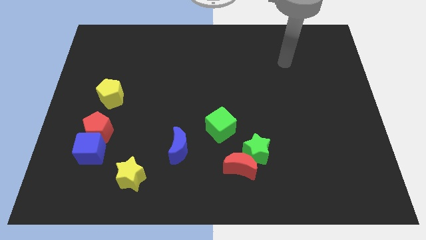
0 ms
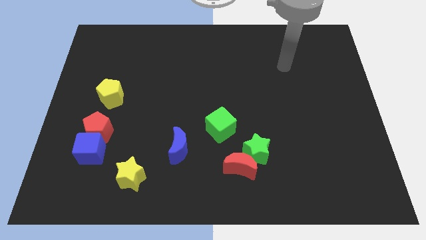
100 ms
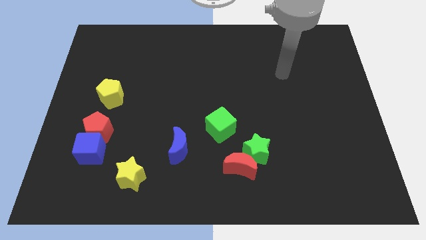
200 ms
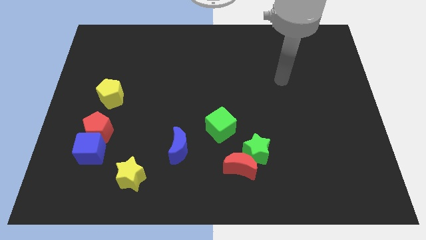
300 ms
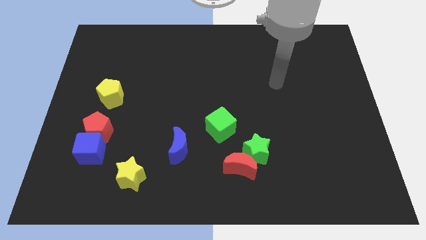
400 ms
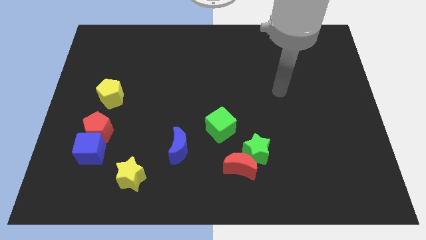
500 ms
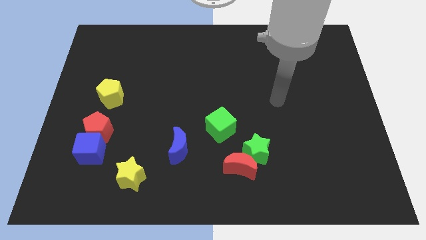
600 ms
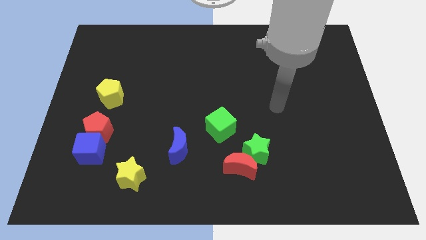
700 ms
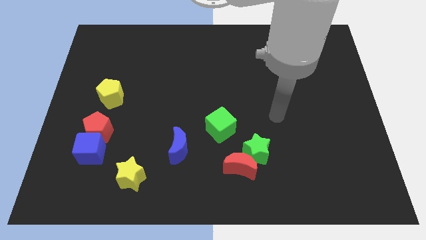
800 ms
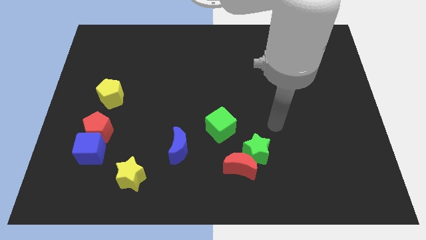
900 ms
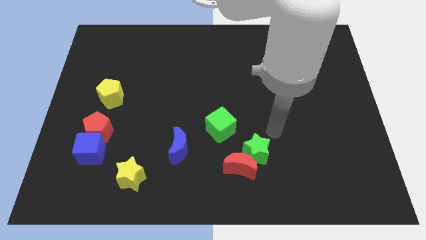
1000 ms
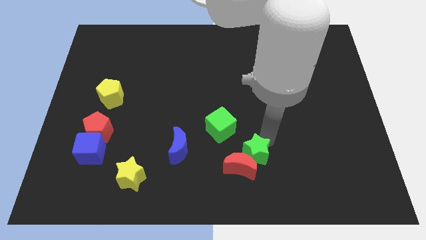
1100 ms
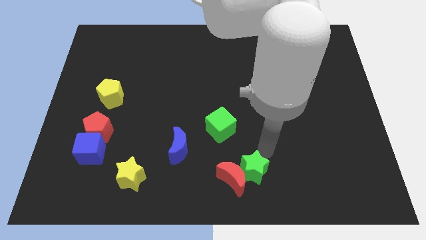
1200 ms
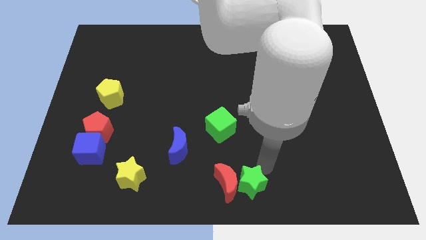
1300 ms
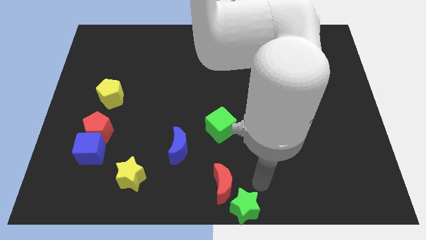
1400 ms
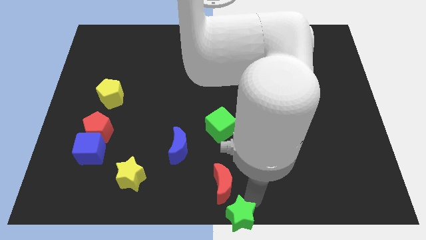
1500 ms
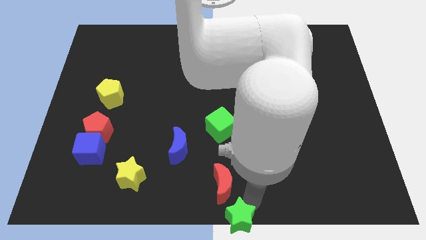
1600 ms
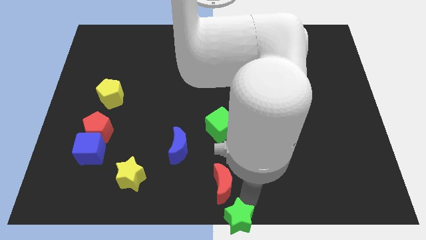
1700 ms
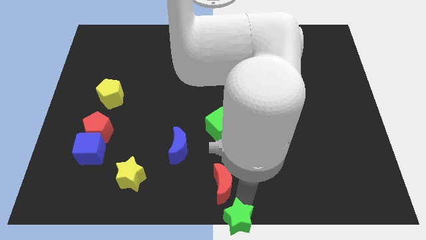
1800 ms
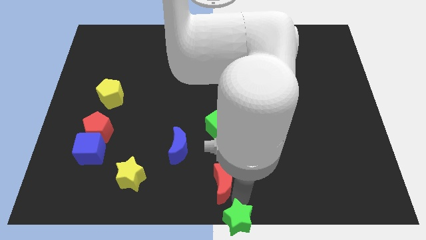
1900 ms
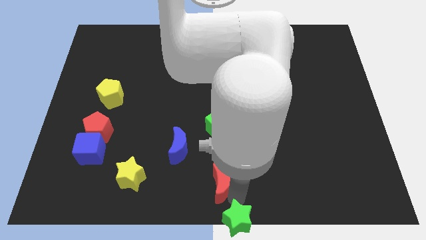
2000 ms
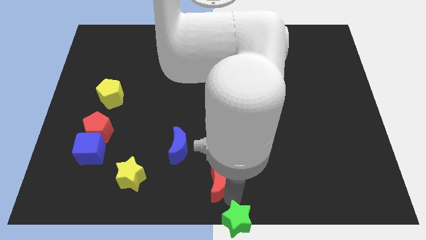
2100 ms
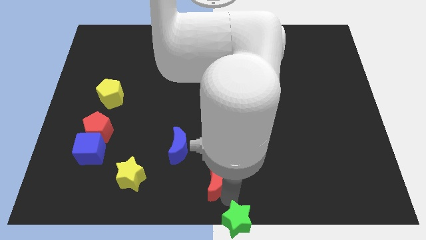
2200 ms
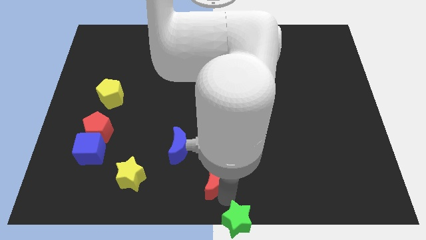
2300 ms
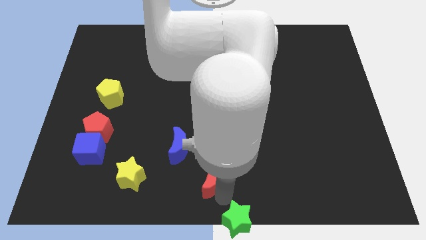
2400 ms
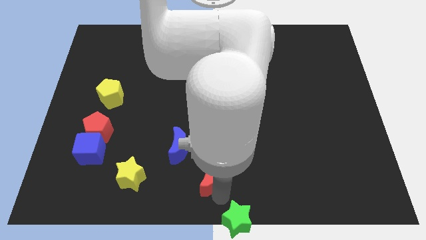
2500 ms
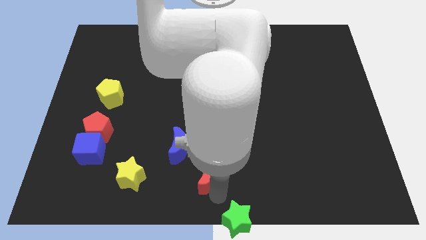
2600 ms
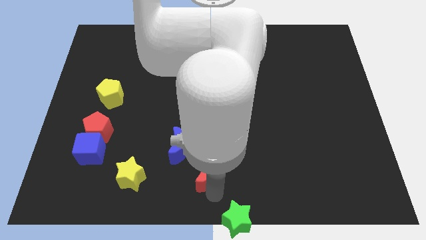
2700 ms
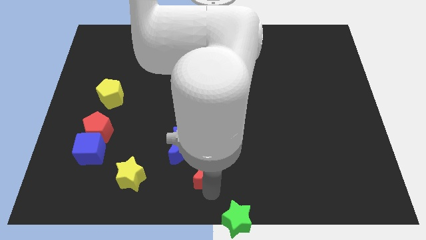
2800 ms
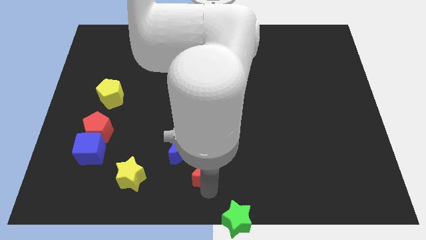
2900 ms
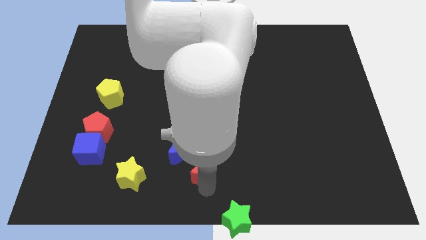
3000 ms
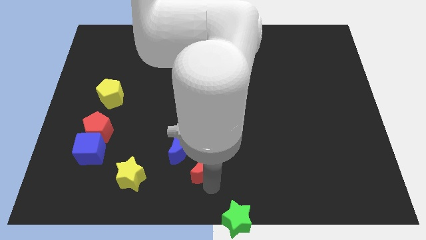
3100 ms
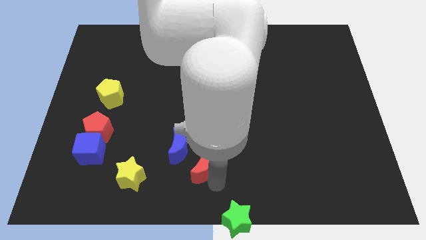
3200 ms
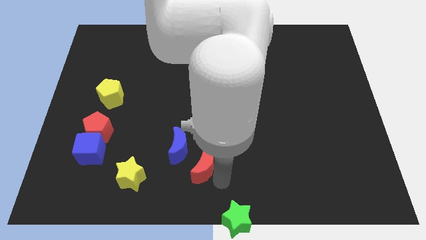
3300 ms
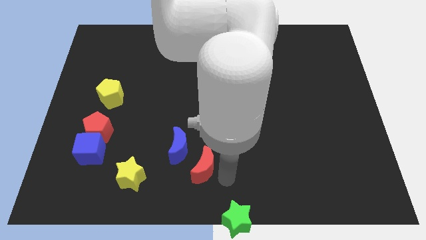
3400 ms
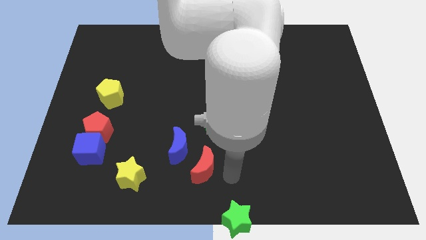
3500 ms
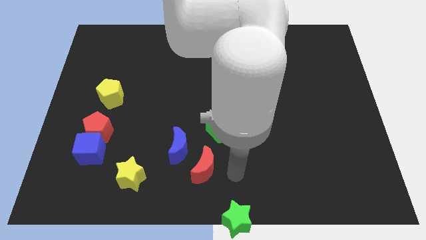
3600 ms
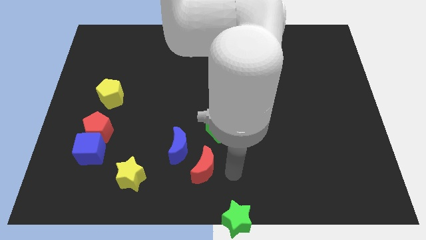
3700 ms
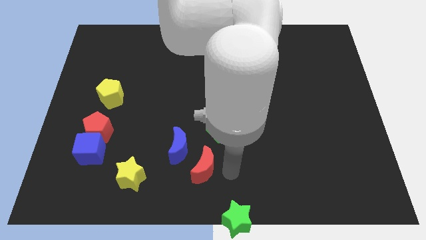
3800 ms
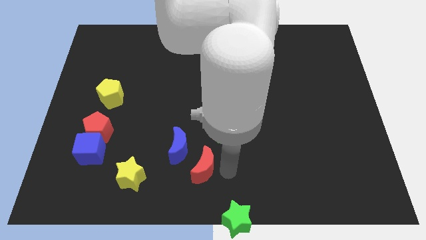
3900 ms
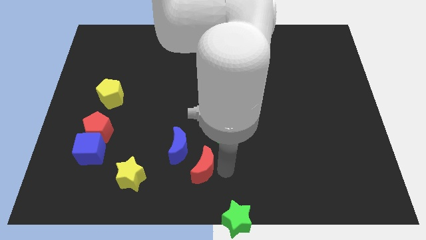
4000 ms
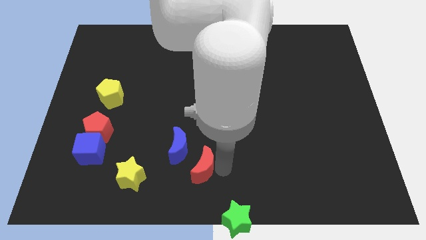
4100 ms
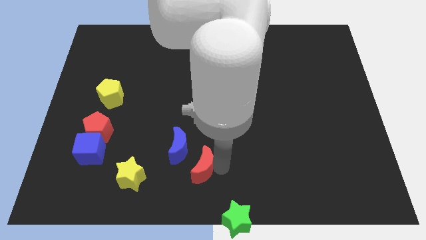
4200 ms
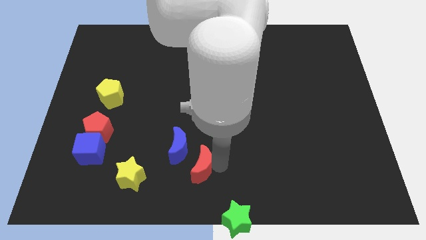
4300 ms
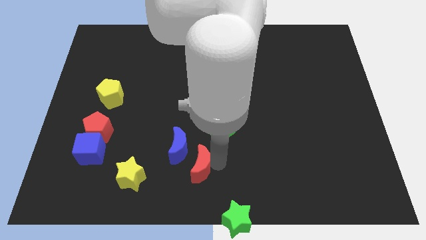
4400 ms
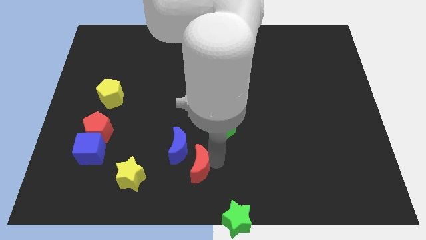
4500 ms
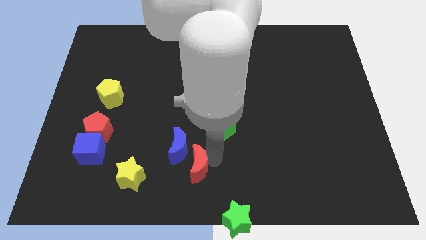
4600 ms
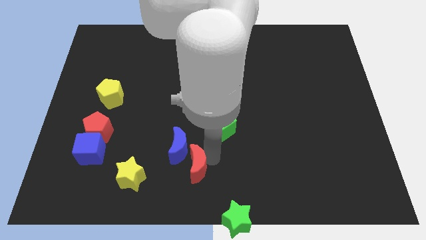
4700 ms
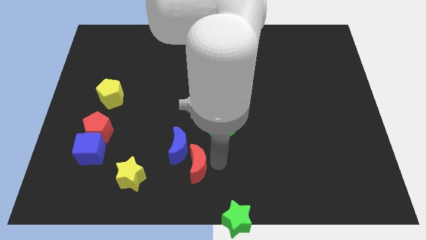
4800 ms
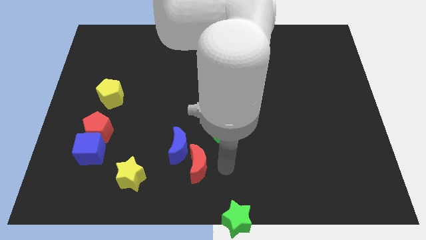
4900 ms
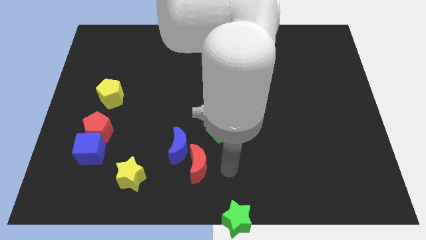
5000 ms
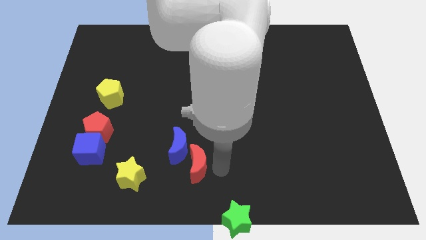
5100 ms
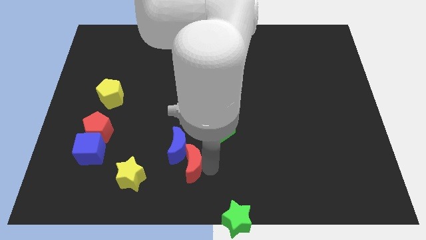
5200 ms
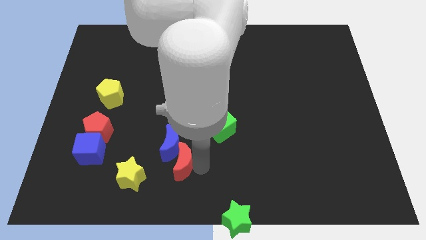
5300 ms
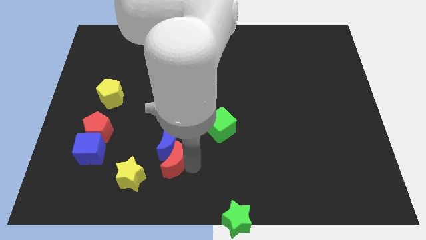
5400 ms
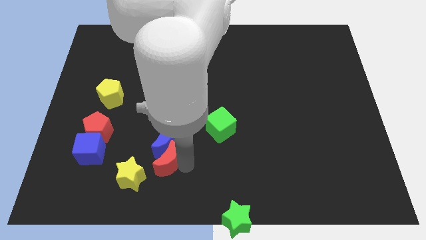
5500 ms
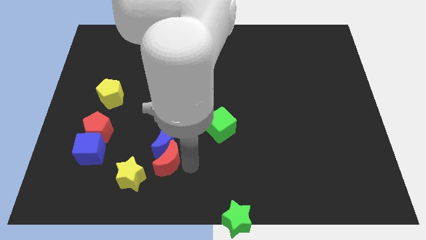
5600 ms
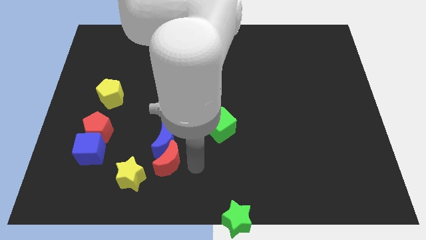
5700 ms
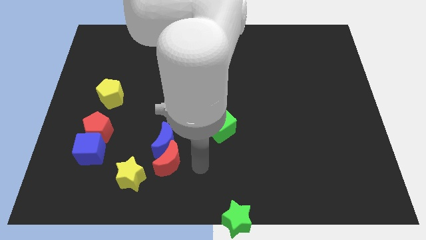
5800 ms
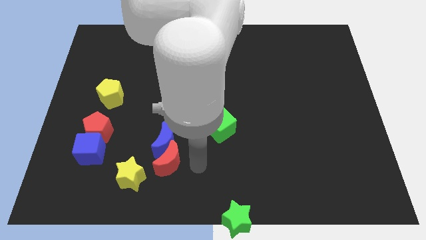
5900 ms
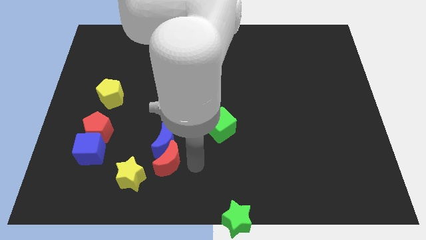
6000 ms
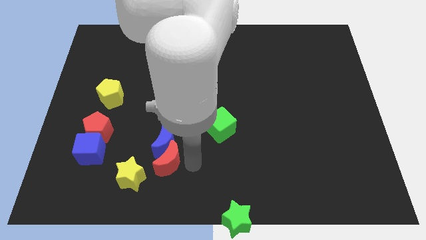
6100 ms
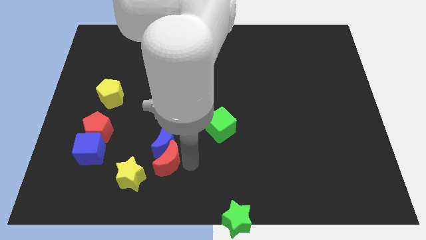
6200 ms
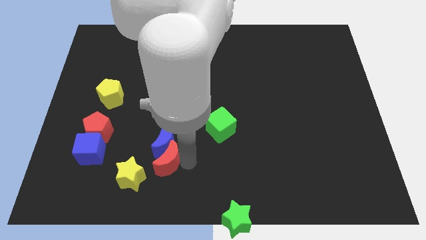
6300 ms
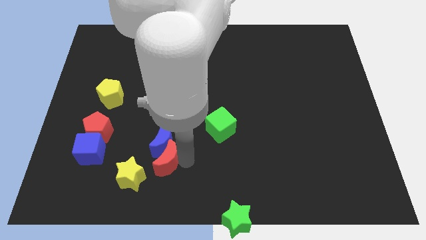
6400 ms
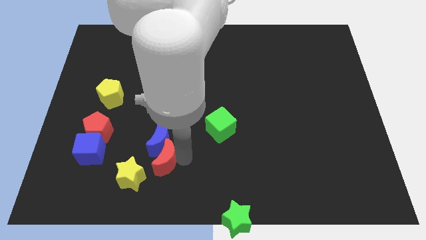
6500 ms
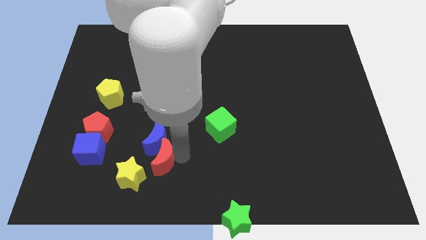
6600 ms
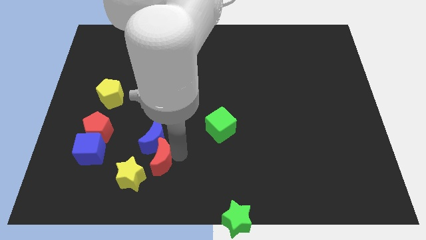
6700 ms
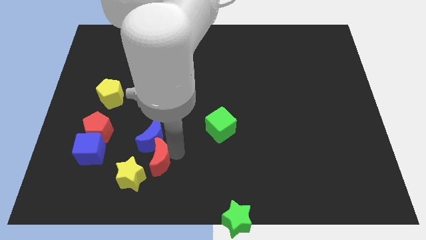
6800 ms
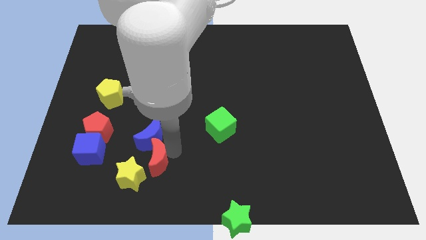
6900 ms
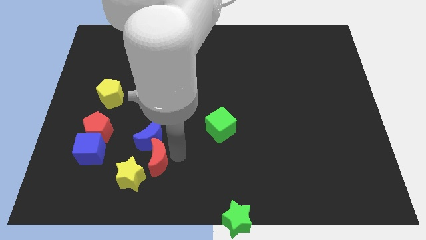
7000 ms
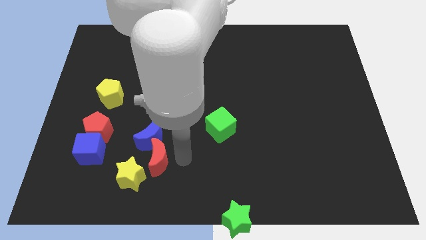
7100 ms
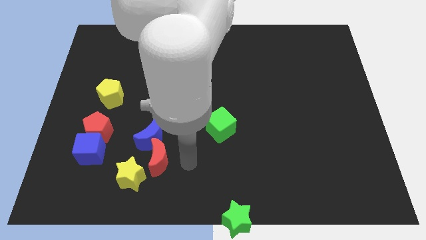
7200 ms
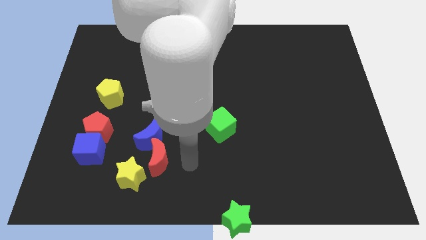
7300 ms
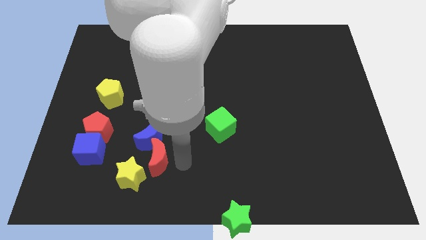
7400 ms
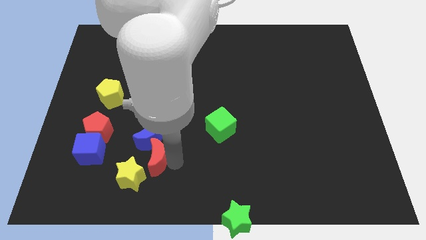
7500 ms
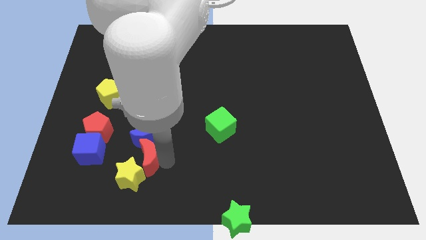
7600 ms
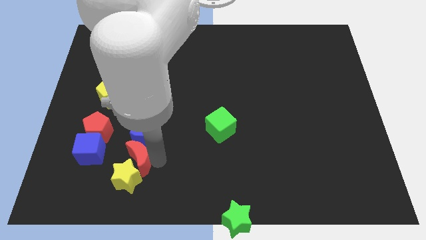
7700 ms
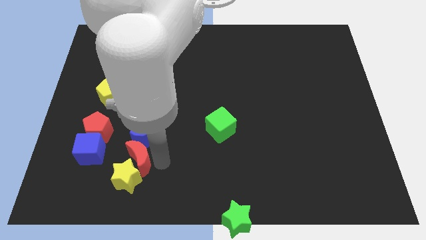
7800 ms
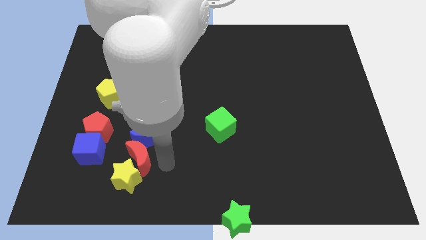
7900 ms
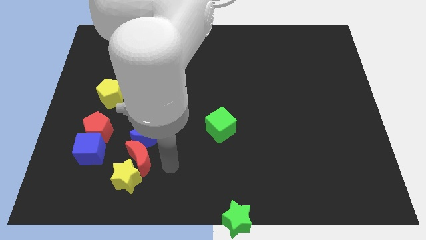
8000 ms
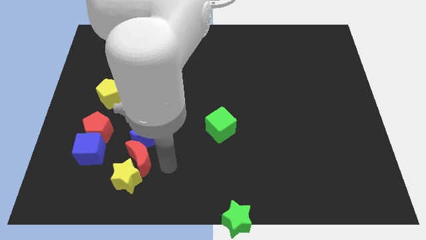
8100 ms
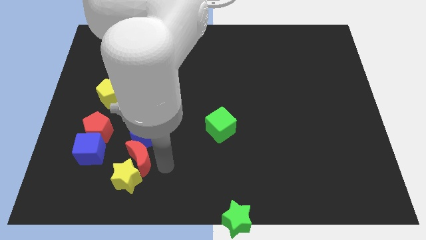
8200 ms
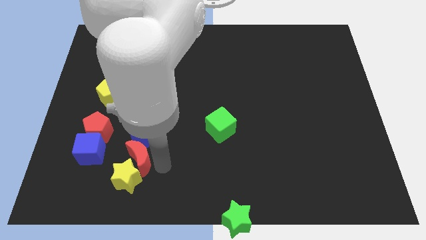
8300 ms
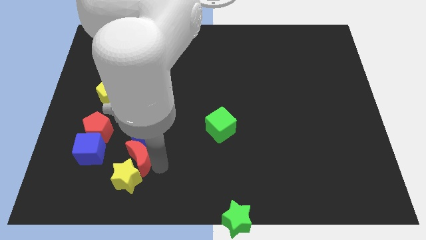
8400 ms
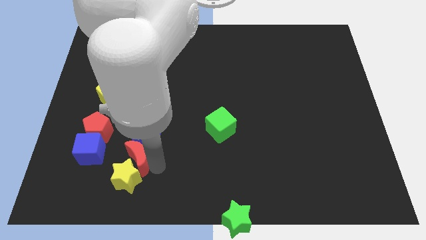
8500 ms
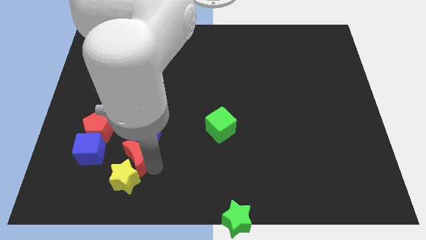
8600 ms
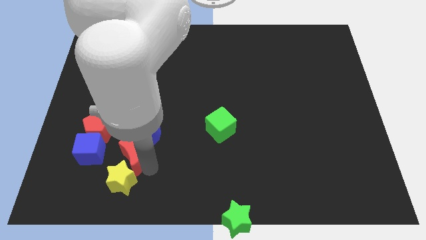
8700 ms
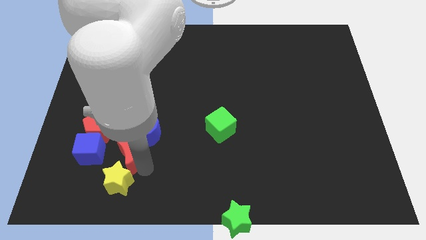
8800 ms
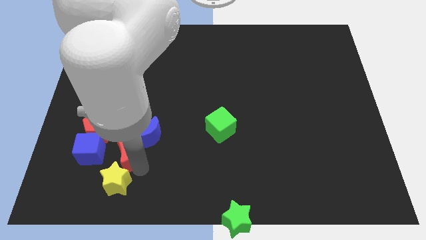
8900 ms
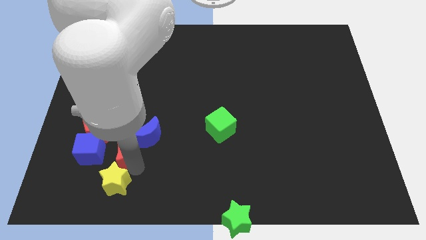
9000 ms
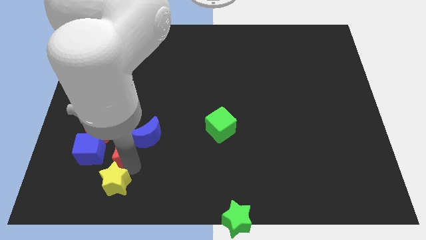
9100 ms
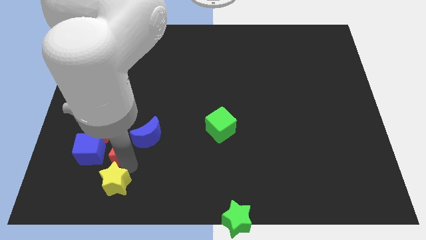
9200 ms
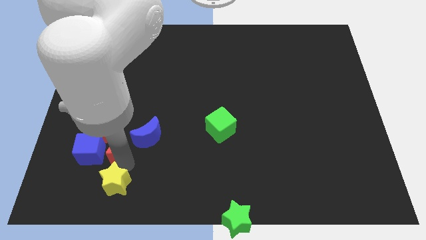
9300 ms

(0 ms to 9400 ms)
put the red moon to the blue cube
